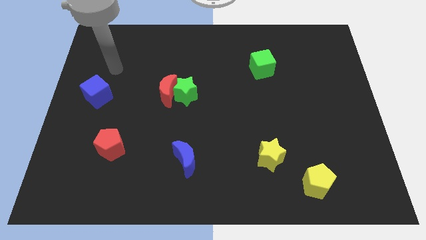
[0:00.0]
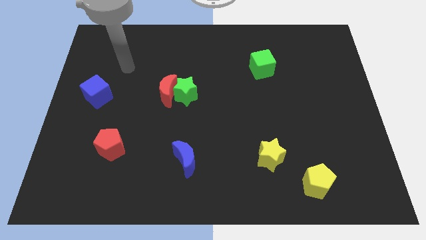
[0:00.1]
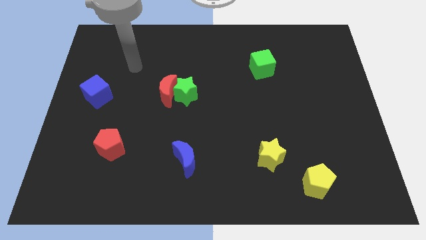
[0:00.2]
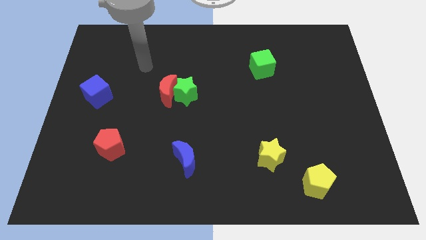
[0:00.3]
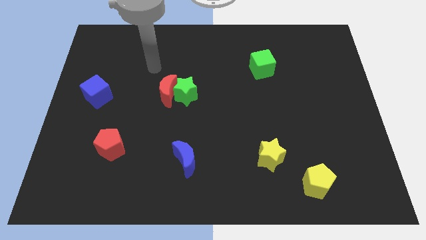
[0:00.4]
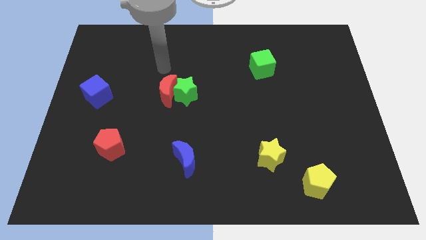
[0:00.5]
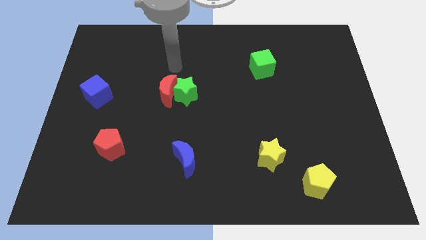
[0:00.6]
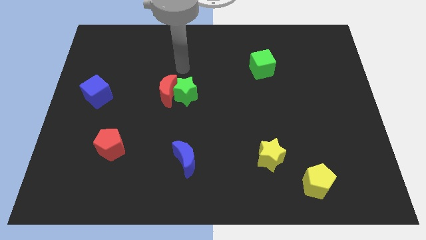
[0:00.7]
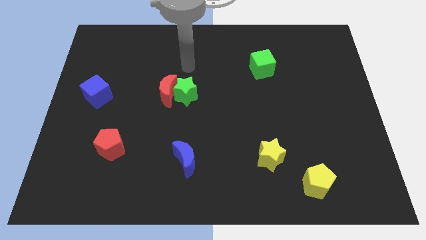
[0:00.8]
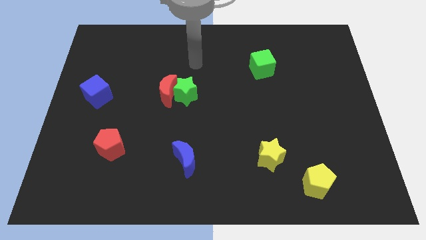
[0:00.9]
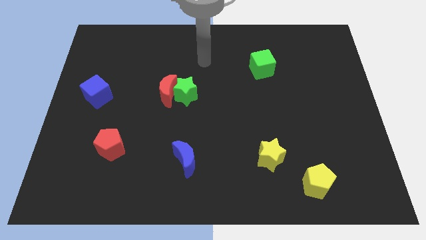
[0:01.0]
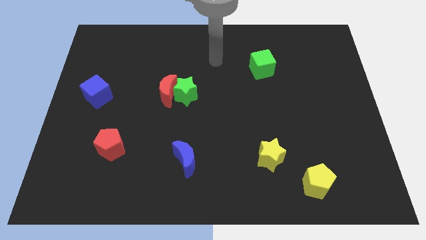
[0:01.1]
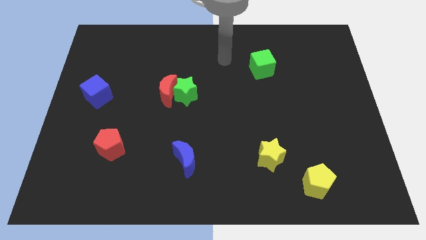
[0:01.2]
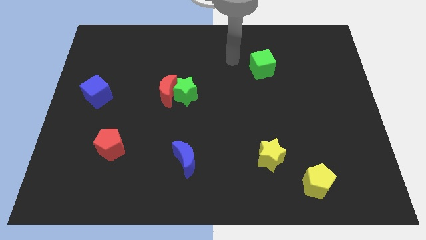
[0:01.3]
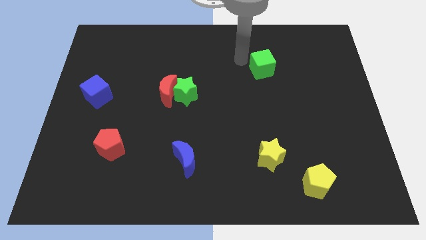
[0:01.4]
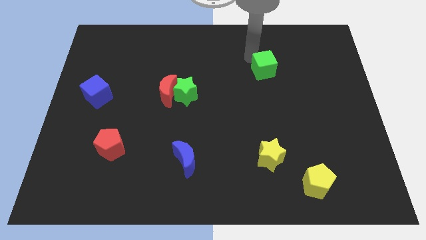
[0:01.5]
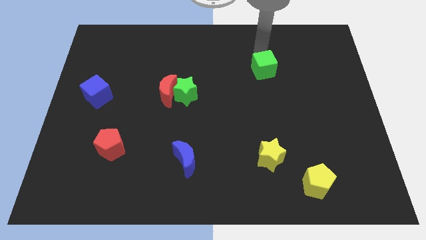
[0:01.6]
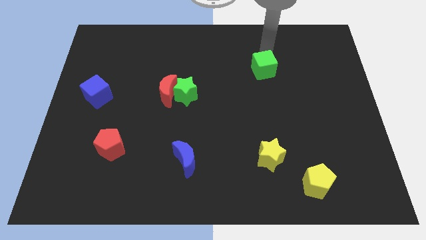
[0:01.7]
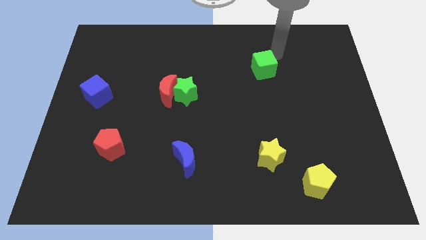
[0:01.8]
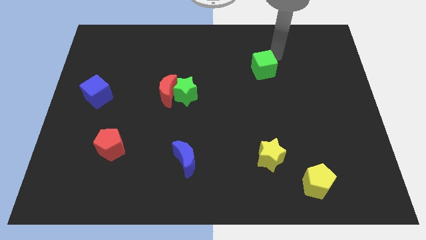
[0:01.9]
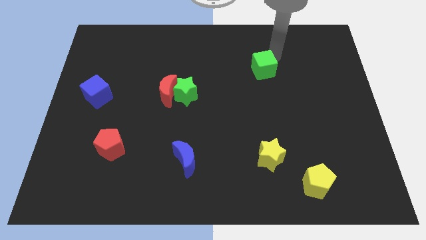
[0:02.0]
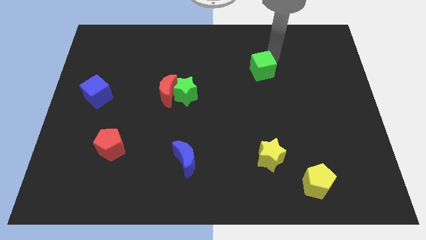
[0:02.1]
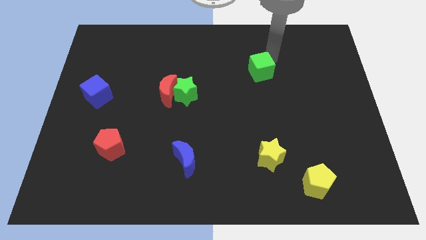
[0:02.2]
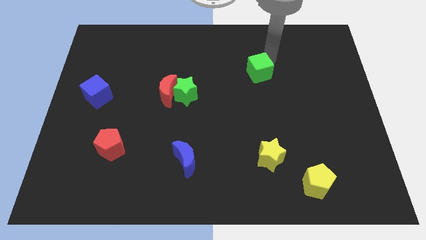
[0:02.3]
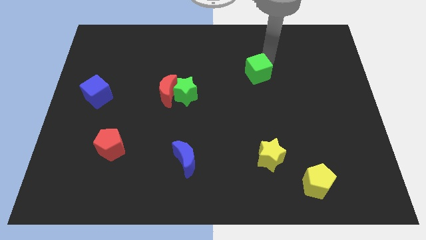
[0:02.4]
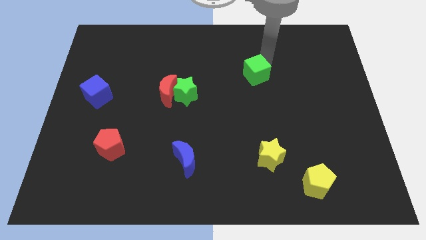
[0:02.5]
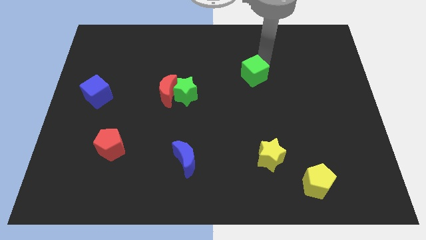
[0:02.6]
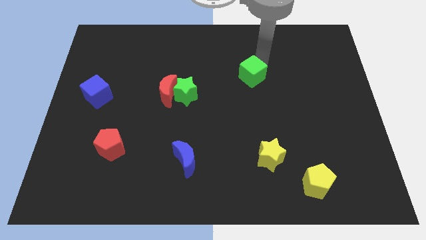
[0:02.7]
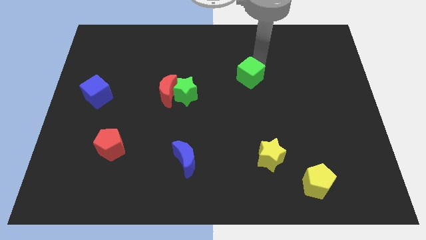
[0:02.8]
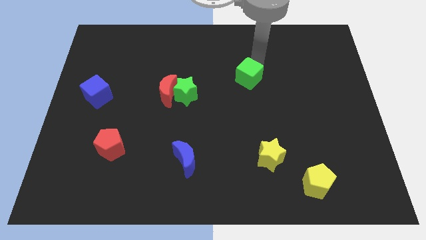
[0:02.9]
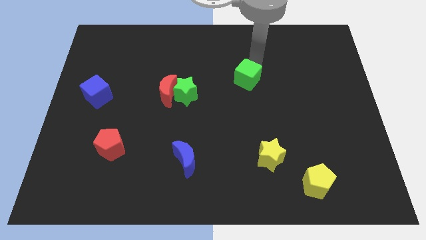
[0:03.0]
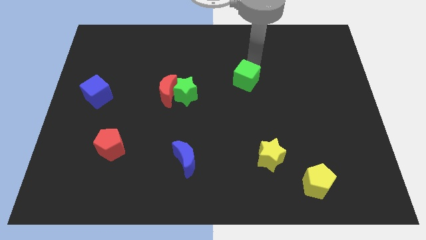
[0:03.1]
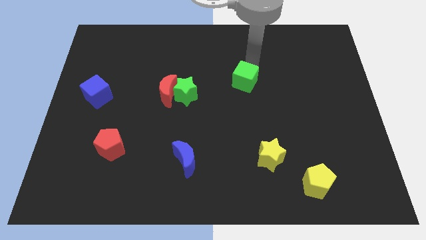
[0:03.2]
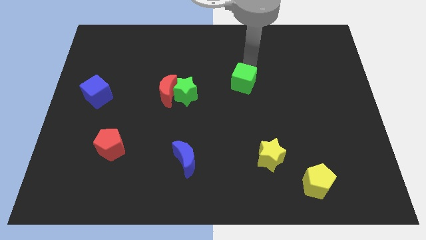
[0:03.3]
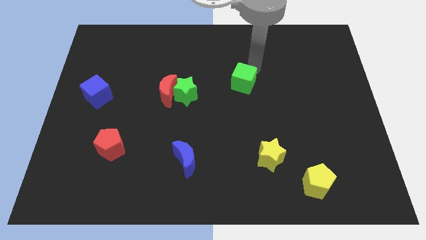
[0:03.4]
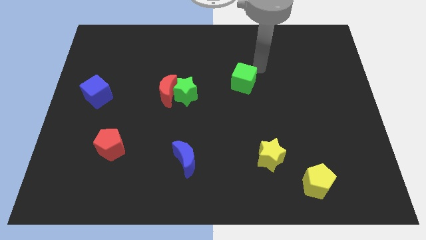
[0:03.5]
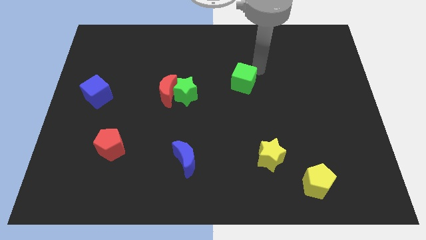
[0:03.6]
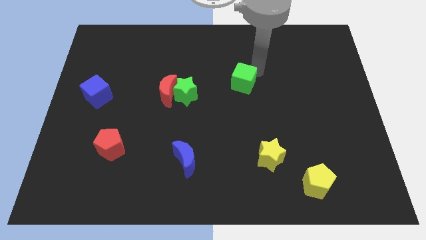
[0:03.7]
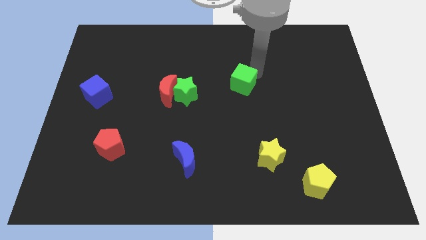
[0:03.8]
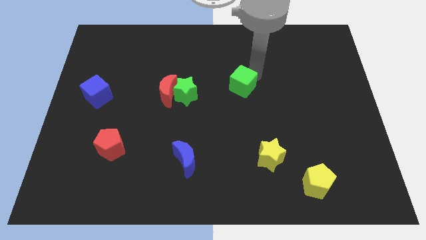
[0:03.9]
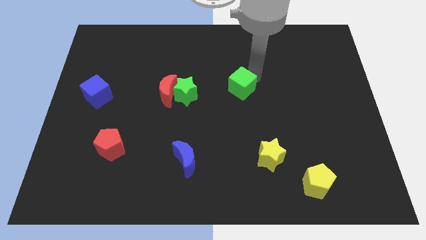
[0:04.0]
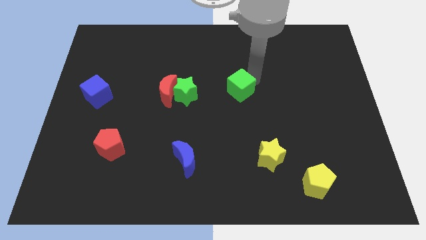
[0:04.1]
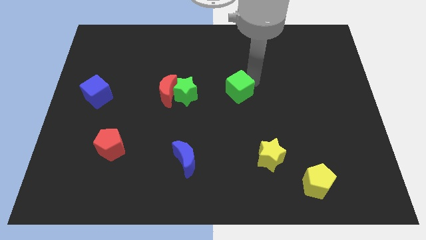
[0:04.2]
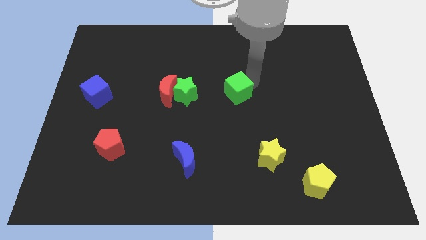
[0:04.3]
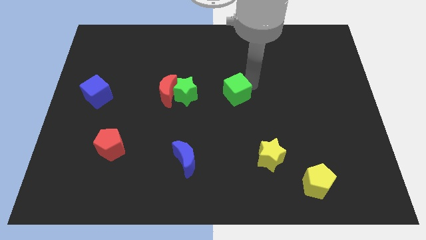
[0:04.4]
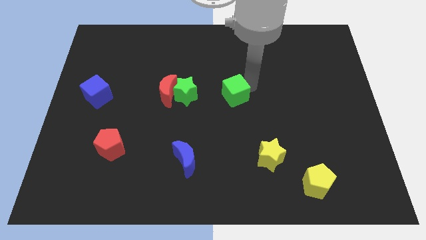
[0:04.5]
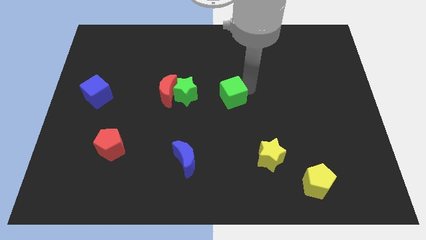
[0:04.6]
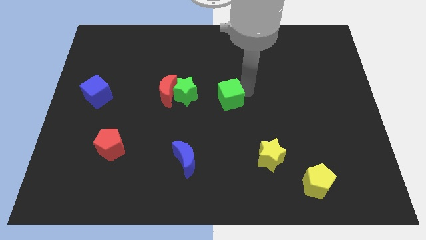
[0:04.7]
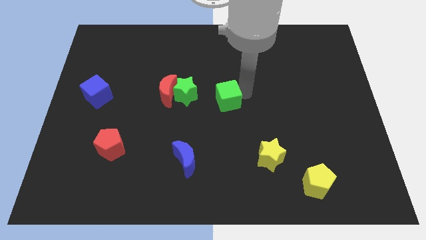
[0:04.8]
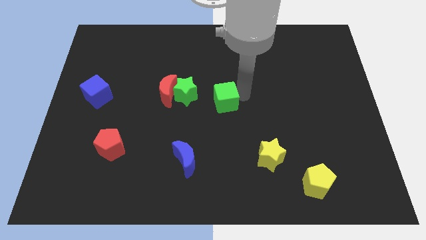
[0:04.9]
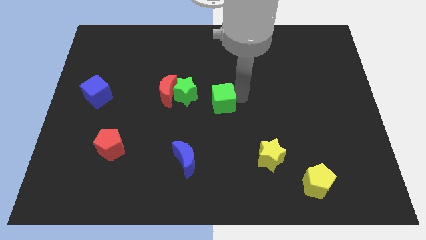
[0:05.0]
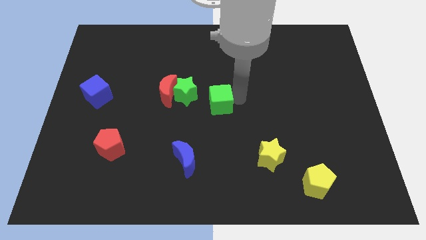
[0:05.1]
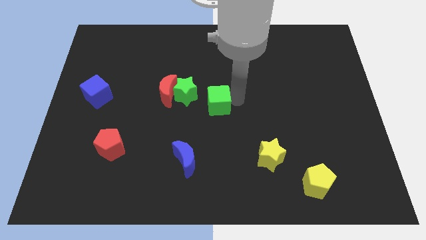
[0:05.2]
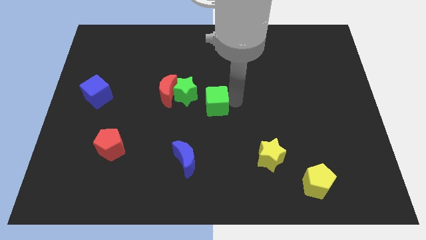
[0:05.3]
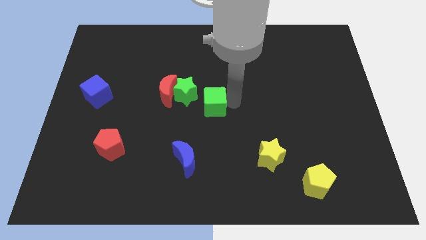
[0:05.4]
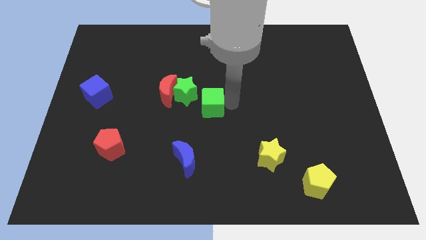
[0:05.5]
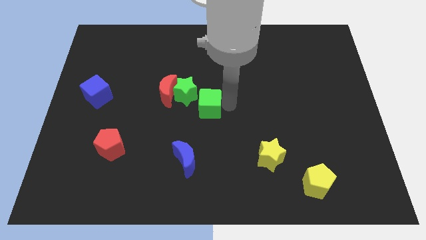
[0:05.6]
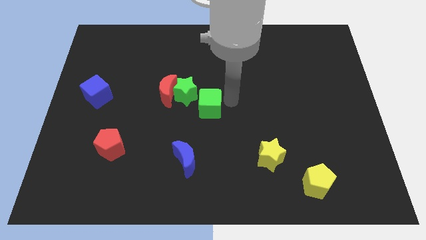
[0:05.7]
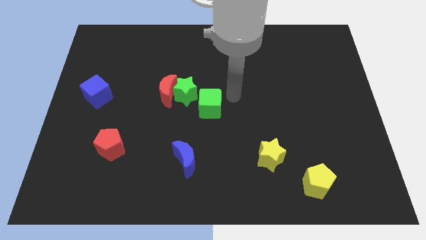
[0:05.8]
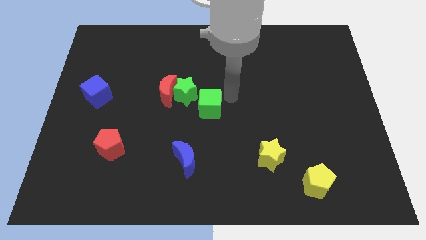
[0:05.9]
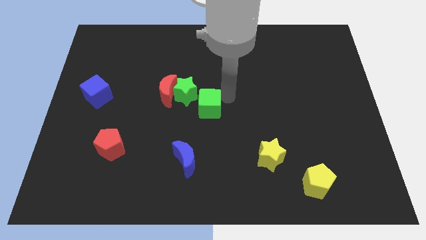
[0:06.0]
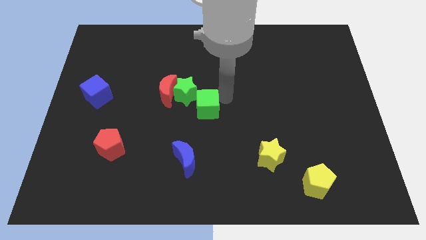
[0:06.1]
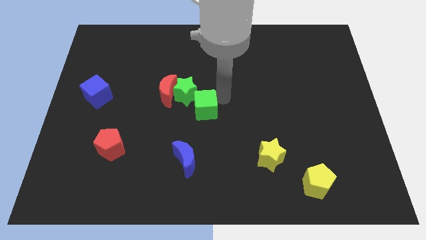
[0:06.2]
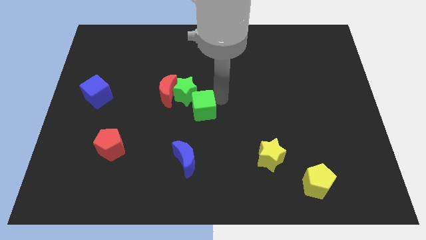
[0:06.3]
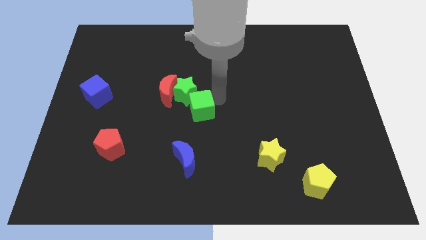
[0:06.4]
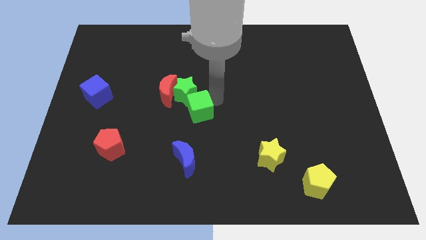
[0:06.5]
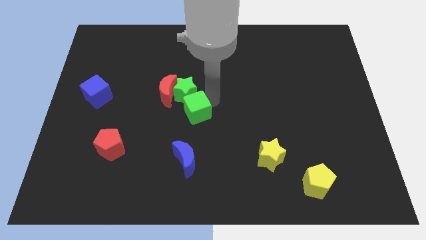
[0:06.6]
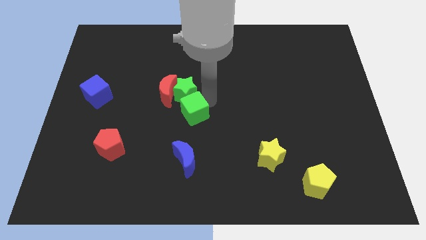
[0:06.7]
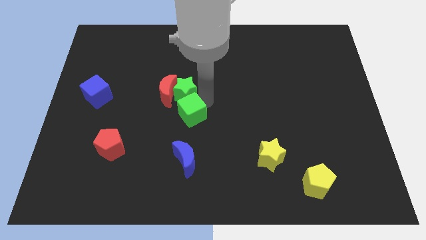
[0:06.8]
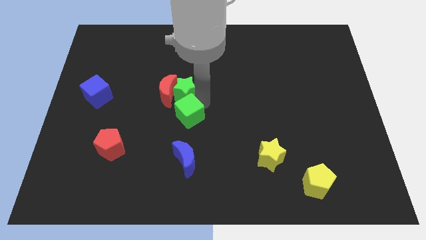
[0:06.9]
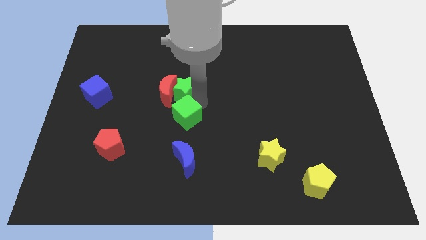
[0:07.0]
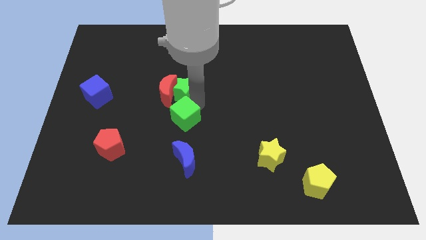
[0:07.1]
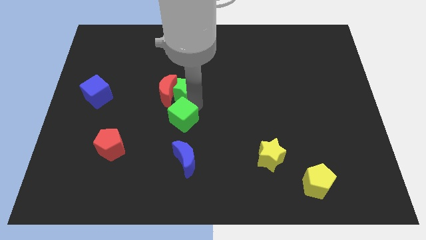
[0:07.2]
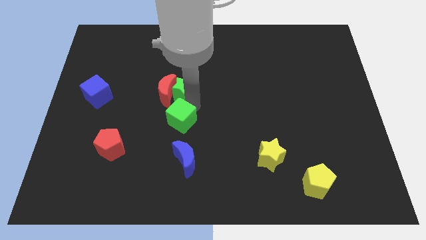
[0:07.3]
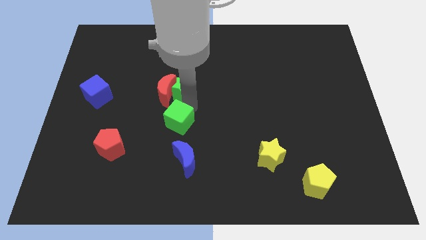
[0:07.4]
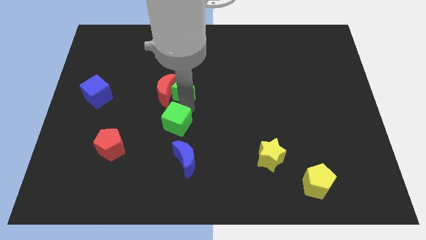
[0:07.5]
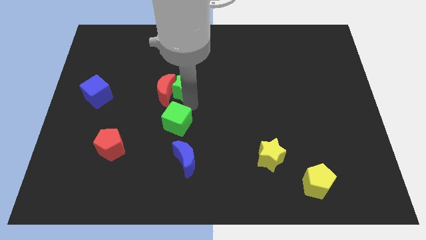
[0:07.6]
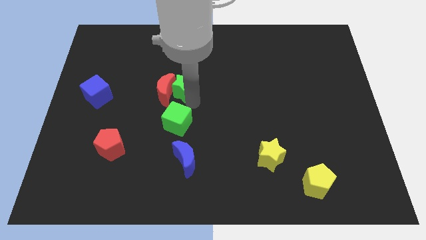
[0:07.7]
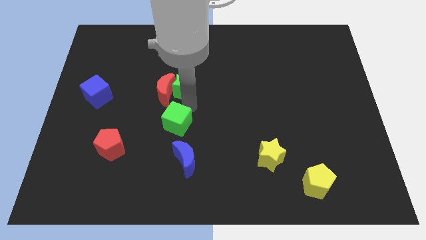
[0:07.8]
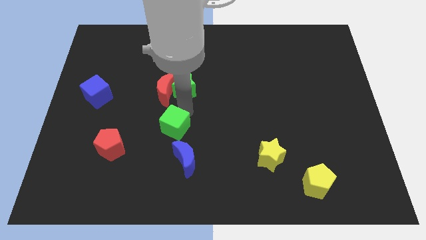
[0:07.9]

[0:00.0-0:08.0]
slide the green cube to the top left side of the blue moon
